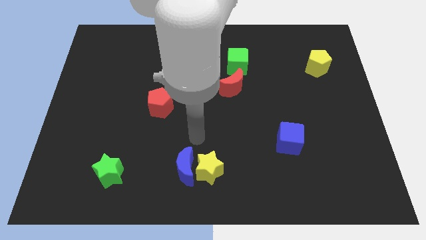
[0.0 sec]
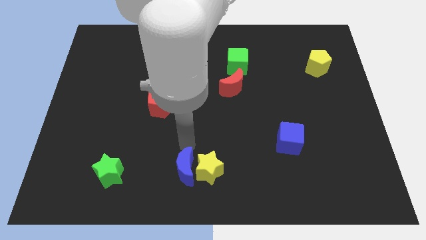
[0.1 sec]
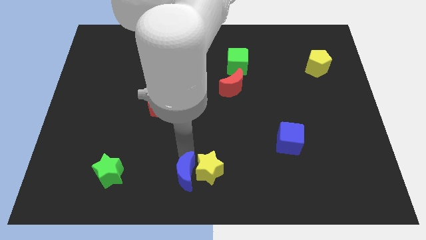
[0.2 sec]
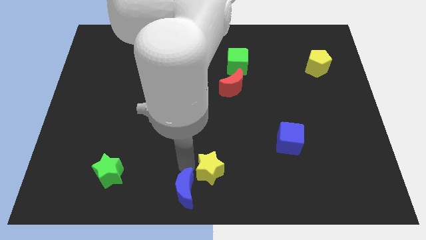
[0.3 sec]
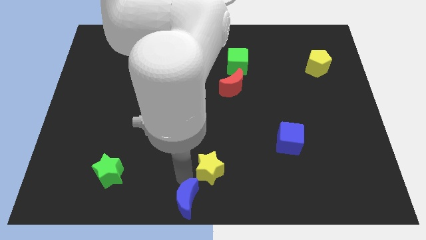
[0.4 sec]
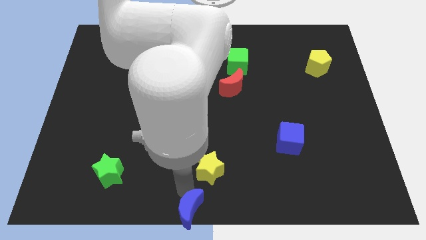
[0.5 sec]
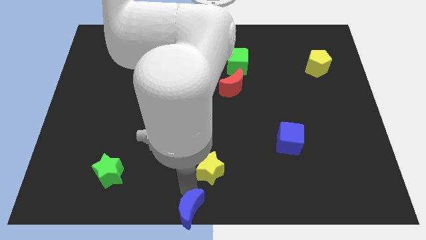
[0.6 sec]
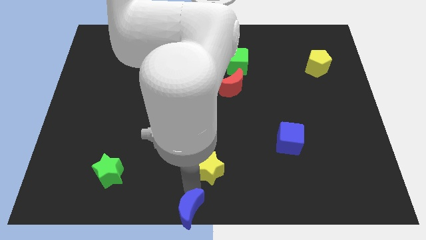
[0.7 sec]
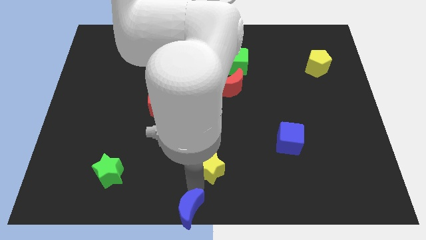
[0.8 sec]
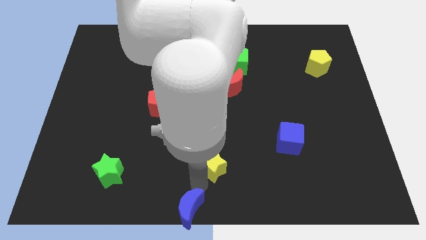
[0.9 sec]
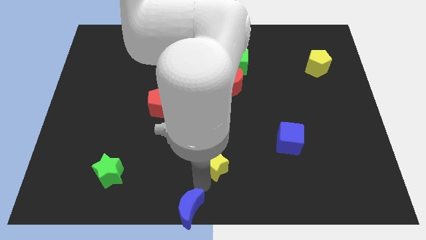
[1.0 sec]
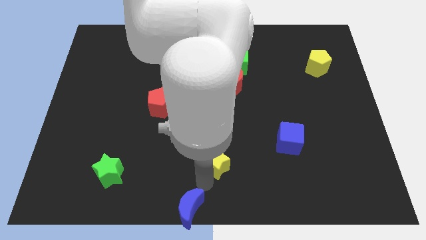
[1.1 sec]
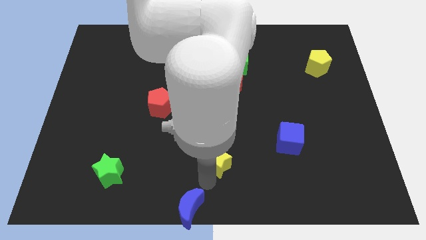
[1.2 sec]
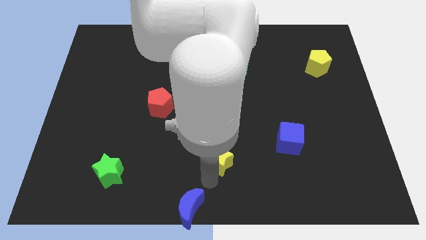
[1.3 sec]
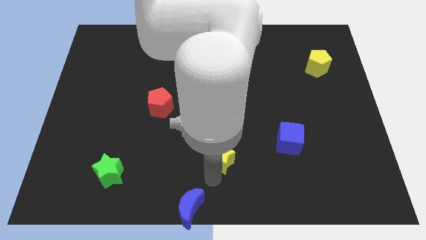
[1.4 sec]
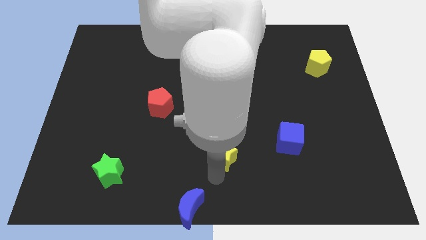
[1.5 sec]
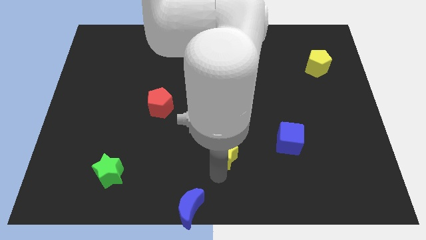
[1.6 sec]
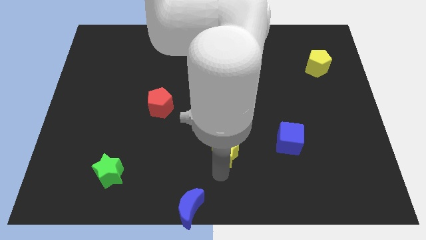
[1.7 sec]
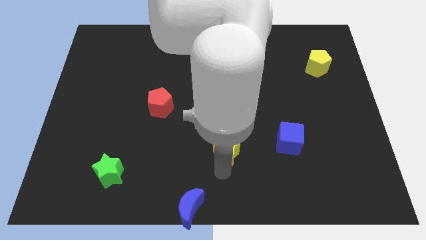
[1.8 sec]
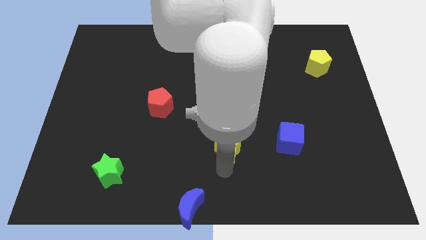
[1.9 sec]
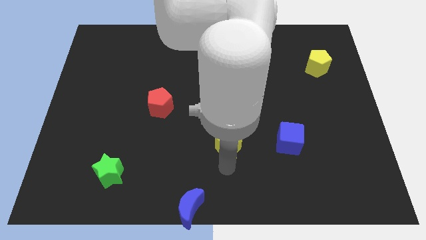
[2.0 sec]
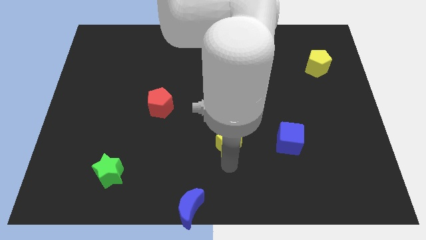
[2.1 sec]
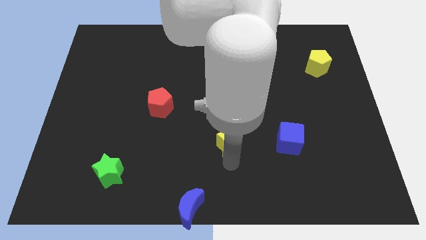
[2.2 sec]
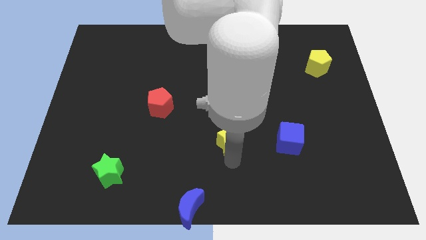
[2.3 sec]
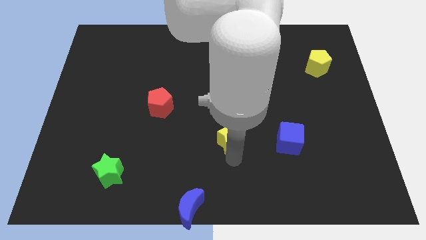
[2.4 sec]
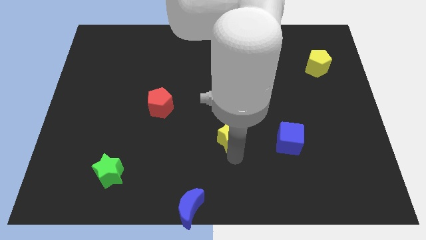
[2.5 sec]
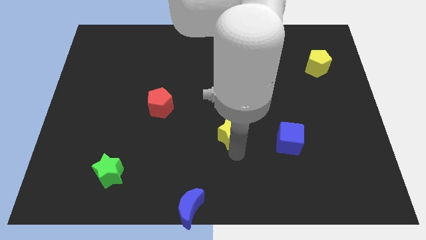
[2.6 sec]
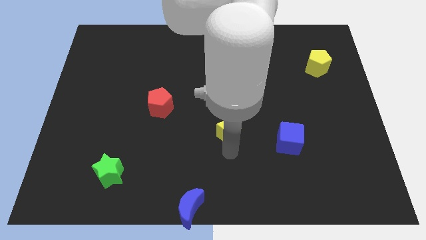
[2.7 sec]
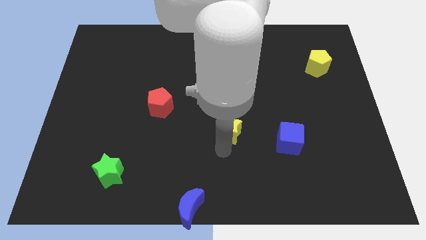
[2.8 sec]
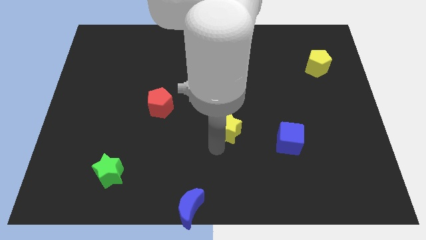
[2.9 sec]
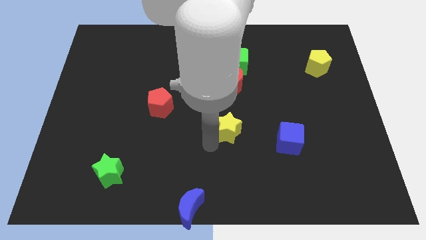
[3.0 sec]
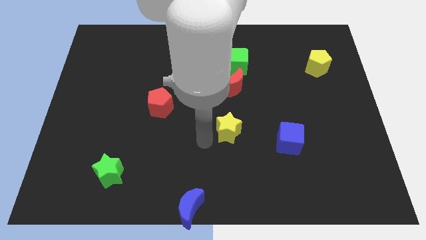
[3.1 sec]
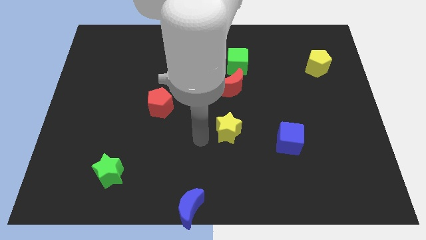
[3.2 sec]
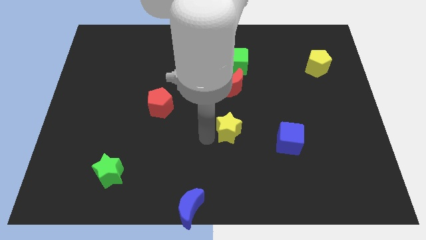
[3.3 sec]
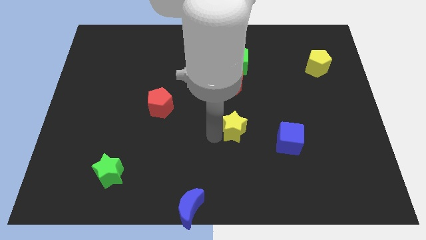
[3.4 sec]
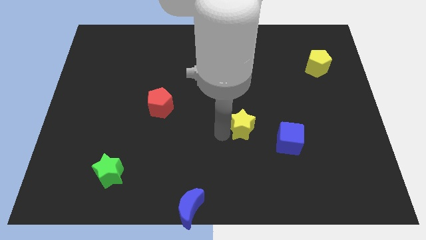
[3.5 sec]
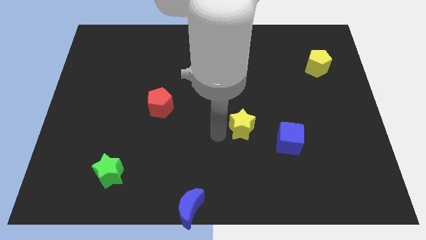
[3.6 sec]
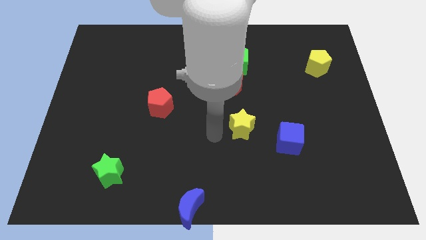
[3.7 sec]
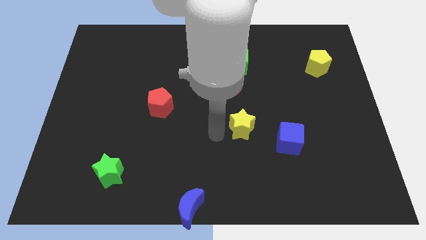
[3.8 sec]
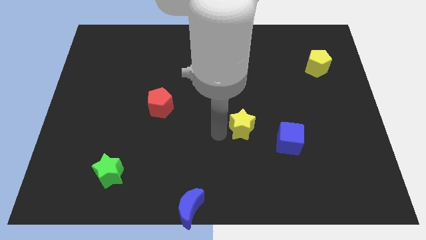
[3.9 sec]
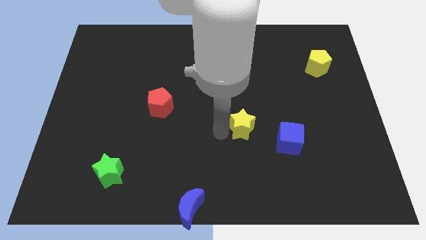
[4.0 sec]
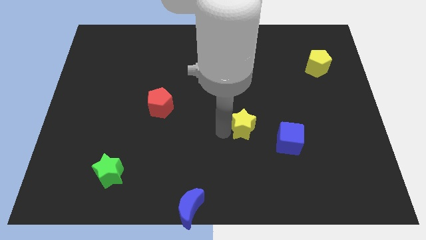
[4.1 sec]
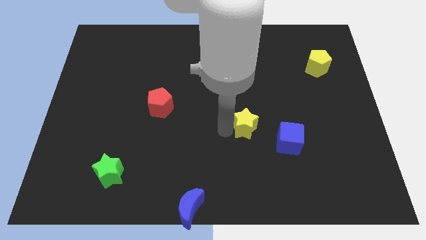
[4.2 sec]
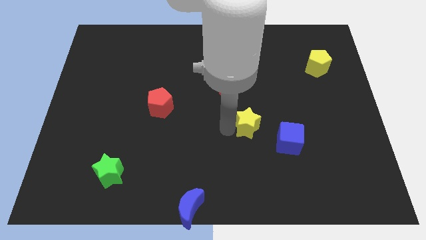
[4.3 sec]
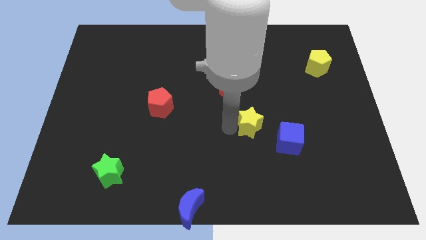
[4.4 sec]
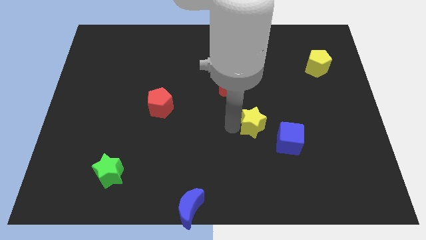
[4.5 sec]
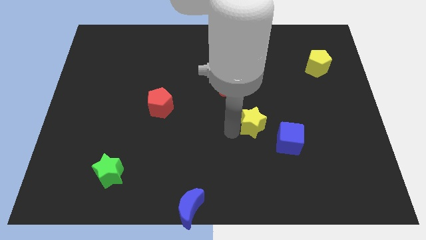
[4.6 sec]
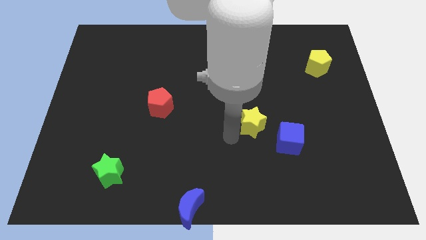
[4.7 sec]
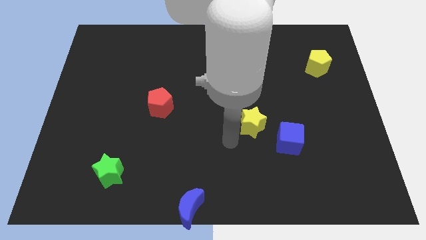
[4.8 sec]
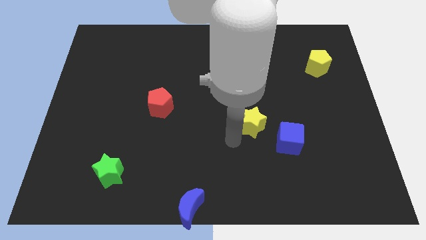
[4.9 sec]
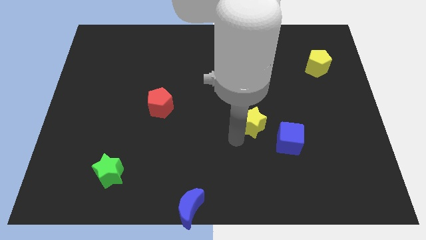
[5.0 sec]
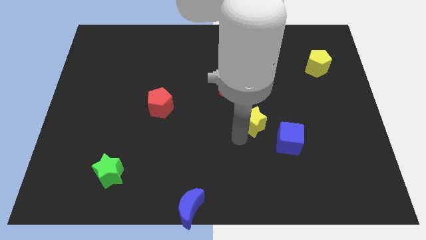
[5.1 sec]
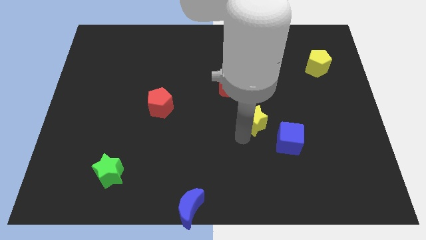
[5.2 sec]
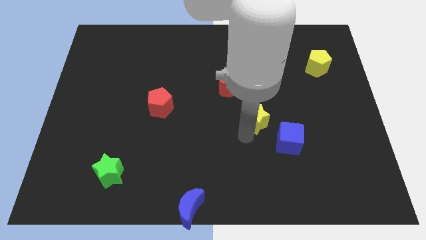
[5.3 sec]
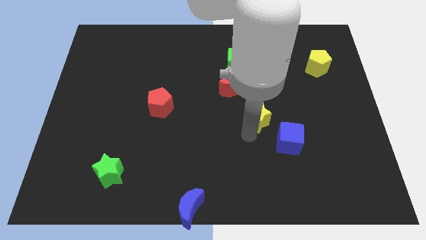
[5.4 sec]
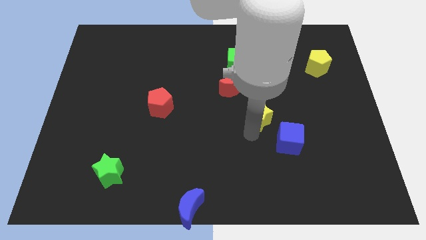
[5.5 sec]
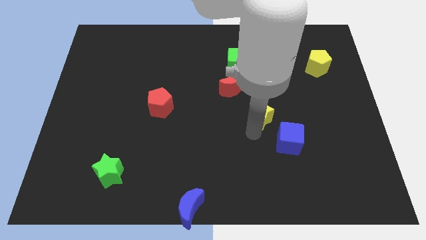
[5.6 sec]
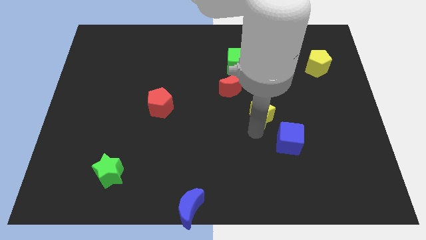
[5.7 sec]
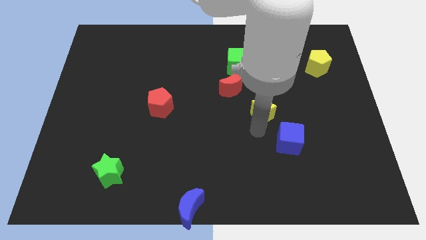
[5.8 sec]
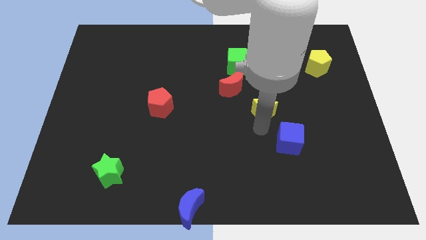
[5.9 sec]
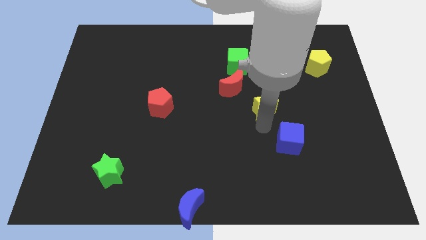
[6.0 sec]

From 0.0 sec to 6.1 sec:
push the yellow star up and right diagonally

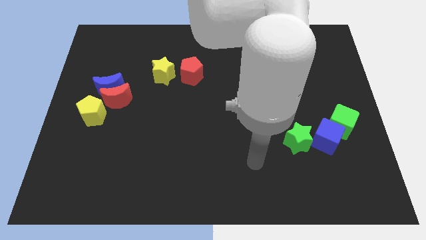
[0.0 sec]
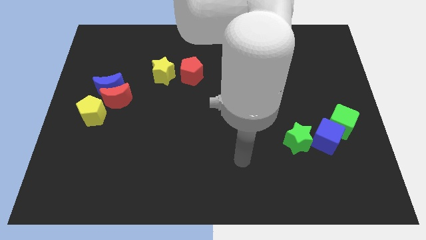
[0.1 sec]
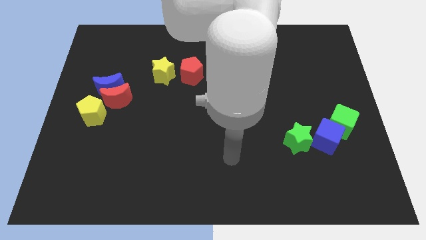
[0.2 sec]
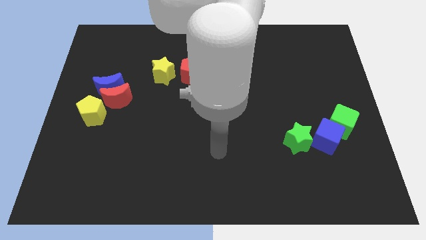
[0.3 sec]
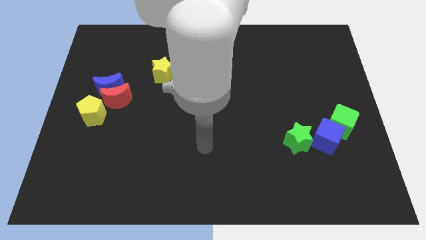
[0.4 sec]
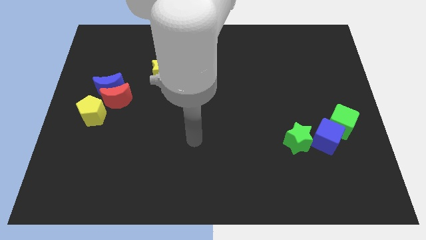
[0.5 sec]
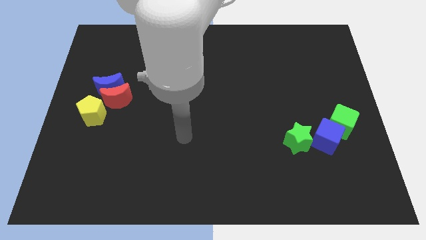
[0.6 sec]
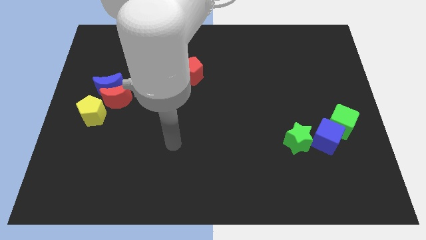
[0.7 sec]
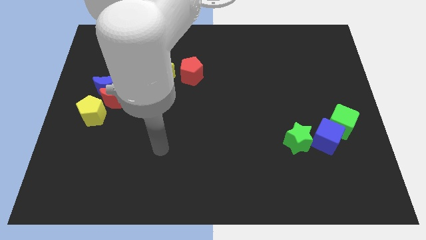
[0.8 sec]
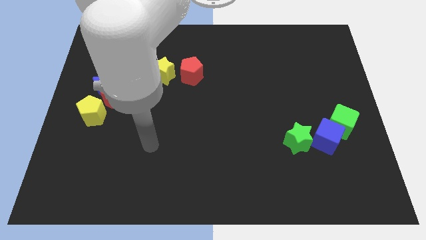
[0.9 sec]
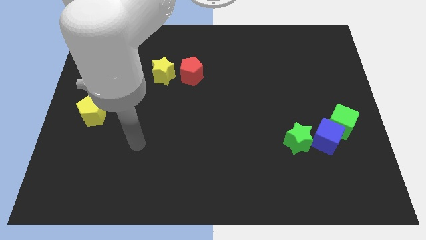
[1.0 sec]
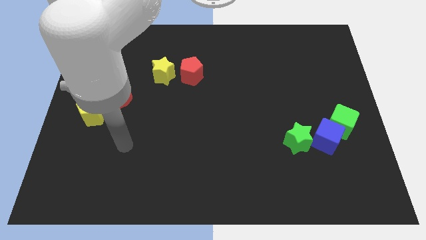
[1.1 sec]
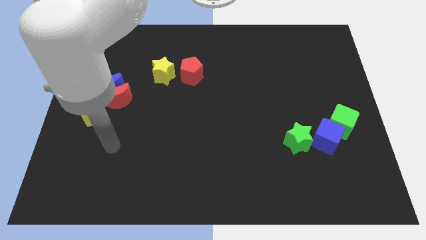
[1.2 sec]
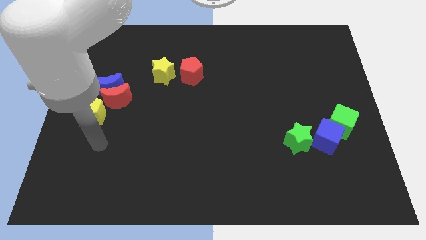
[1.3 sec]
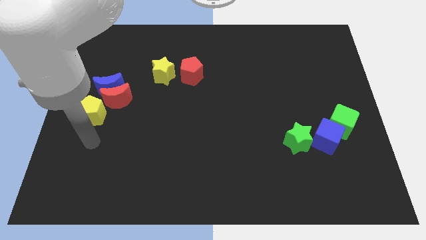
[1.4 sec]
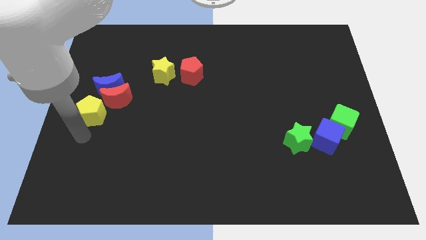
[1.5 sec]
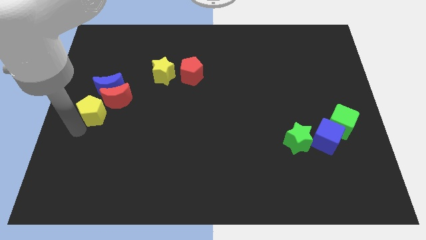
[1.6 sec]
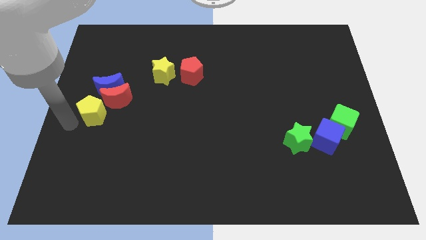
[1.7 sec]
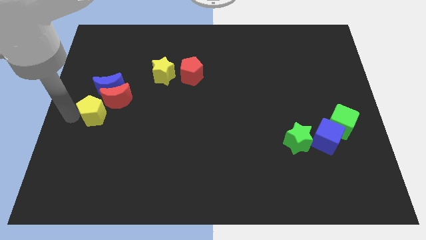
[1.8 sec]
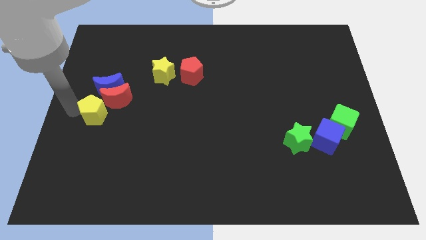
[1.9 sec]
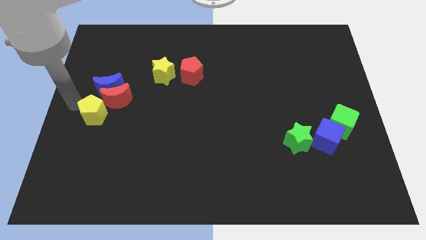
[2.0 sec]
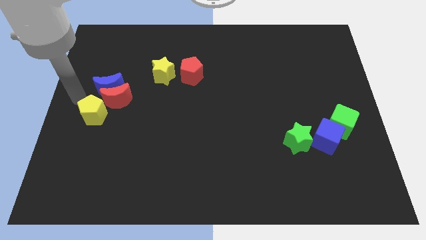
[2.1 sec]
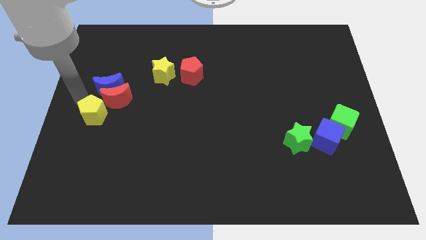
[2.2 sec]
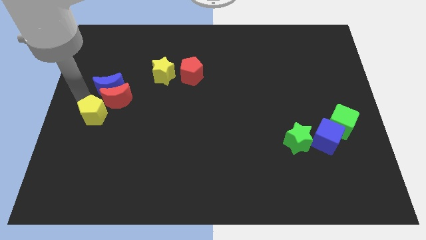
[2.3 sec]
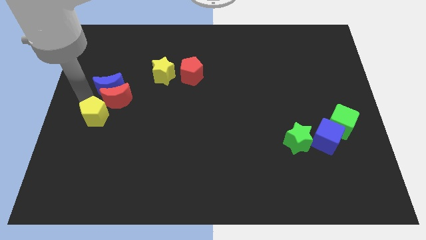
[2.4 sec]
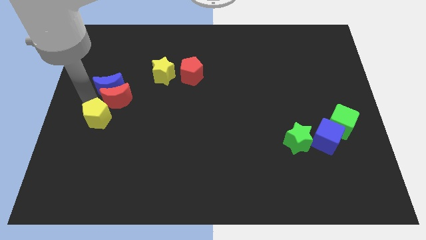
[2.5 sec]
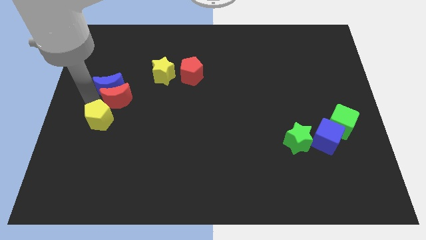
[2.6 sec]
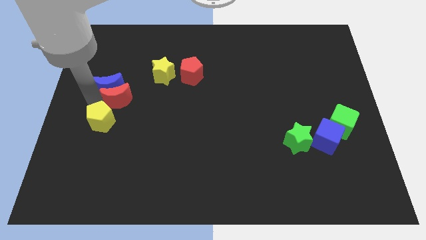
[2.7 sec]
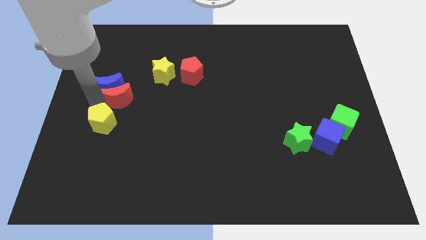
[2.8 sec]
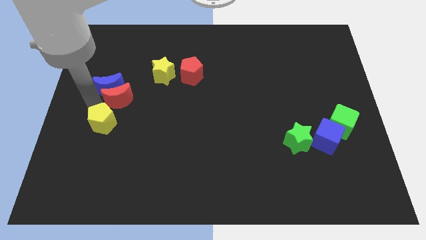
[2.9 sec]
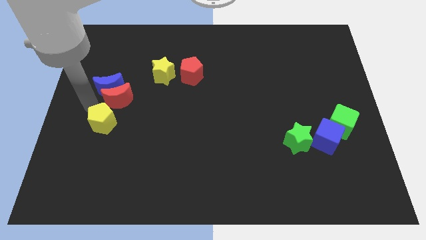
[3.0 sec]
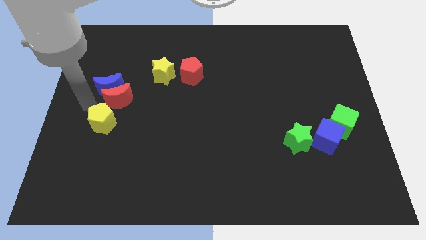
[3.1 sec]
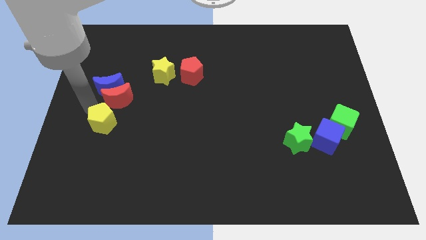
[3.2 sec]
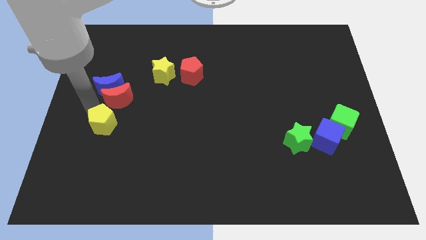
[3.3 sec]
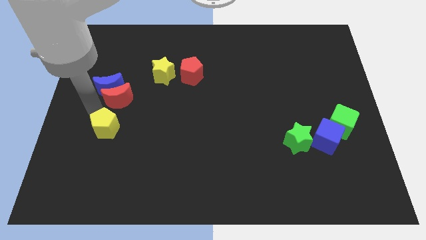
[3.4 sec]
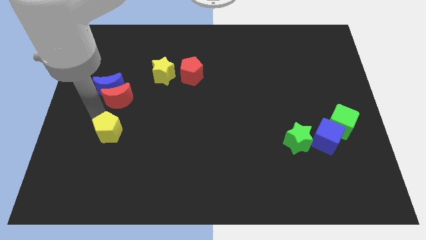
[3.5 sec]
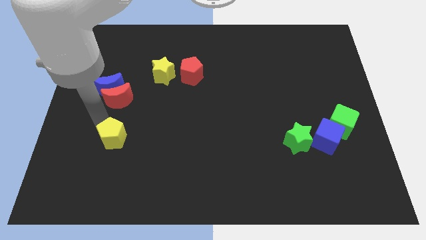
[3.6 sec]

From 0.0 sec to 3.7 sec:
slightly slide the yellow pentagon down and to the right
